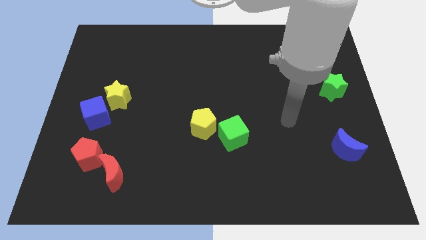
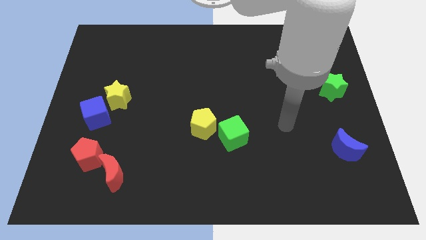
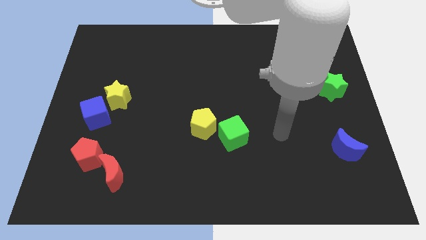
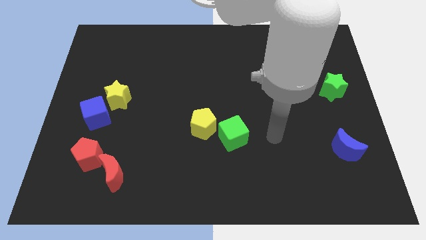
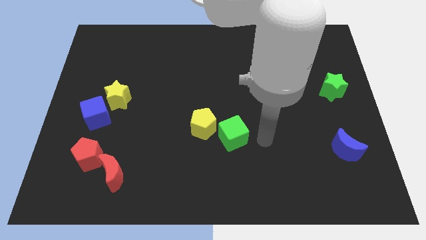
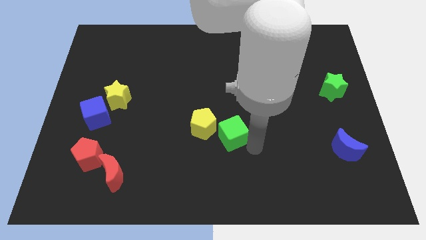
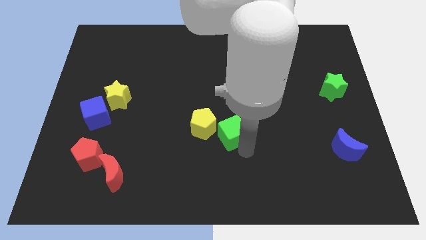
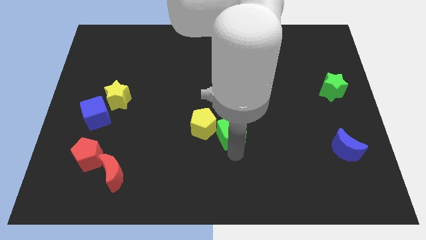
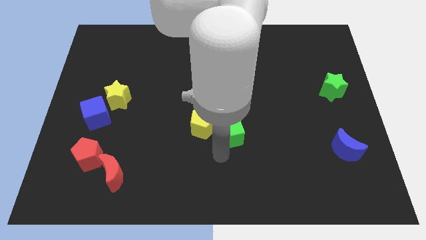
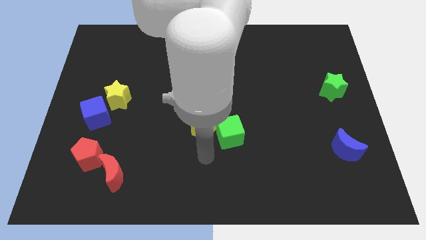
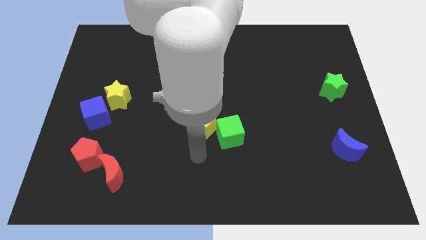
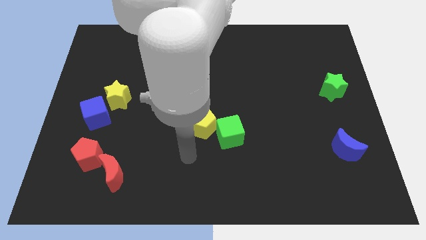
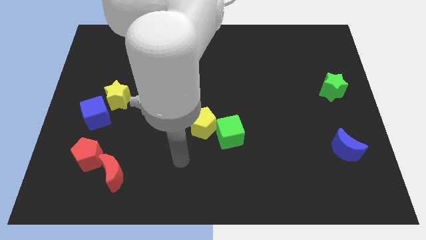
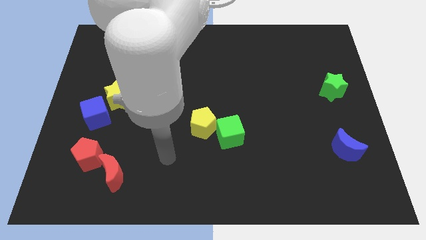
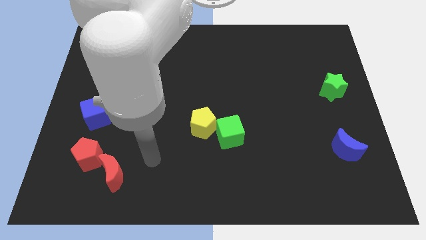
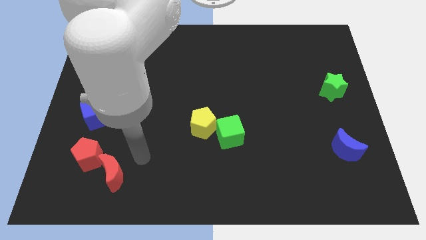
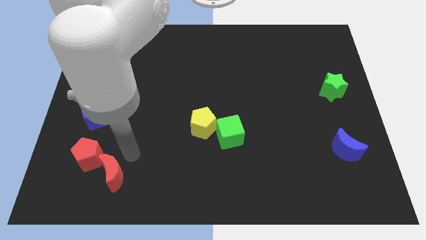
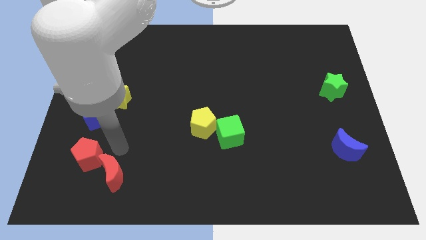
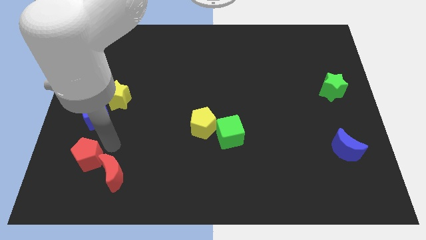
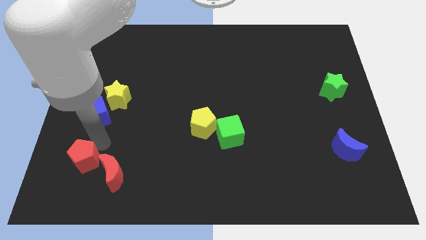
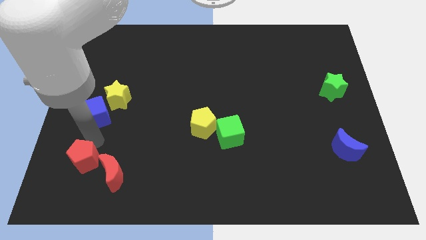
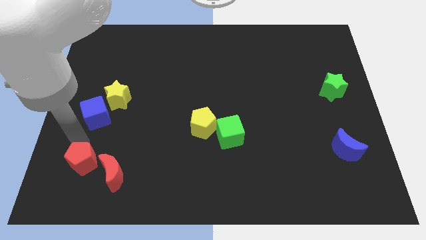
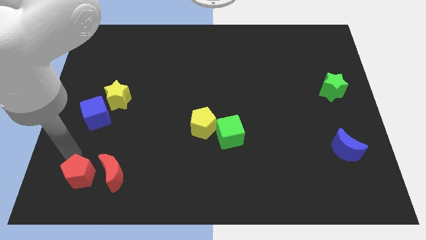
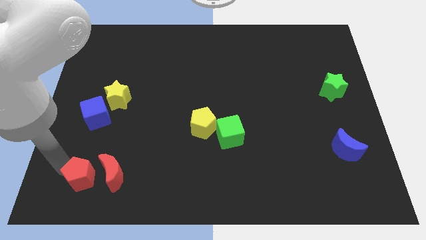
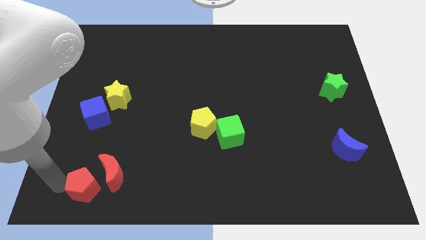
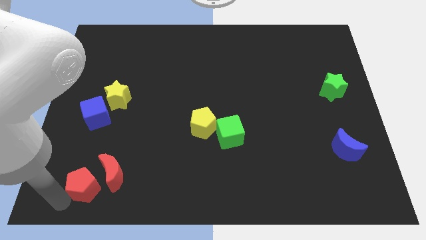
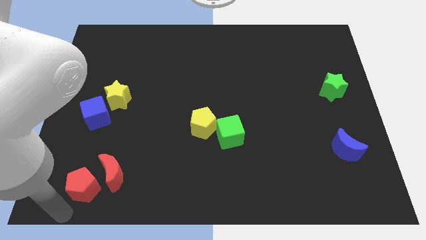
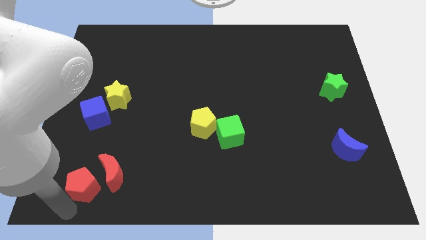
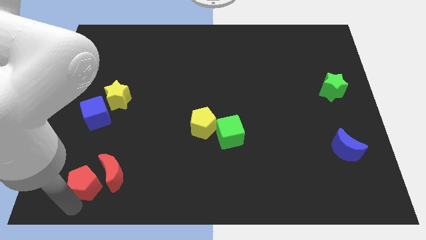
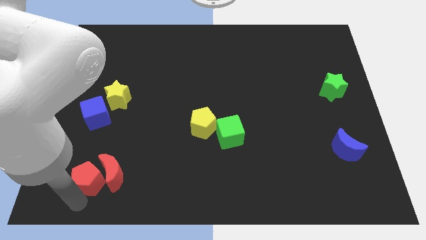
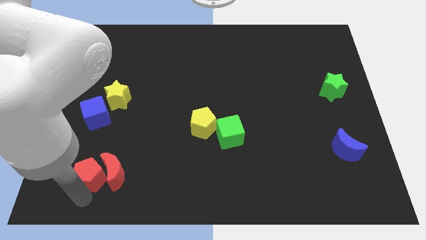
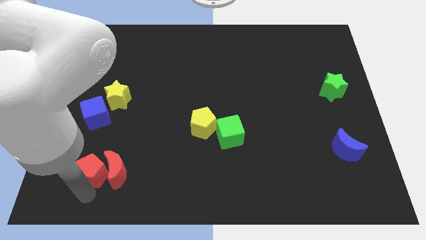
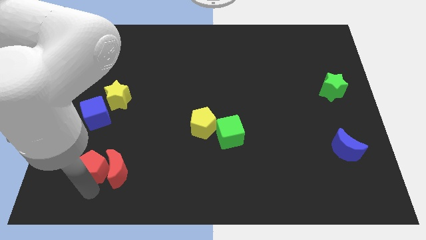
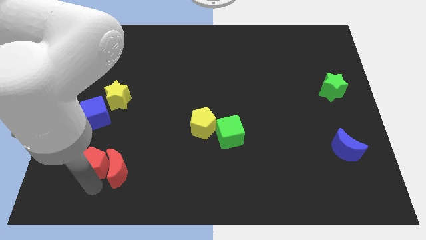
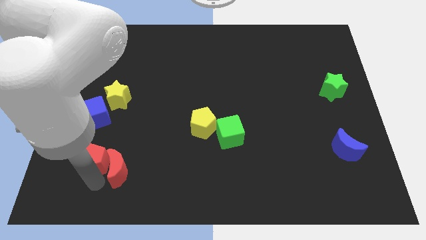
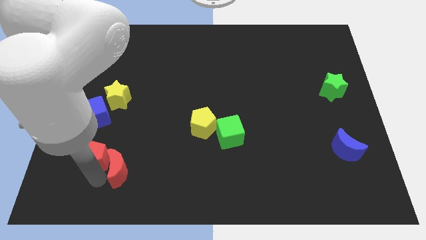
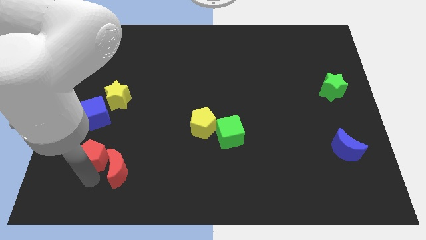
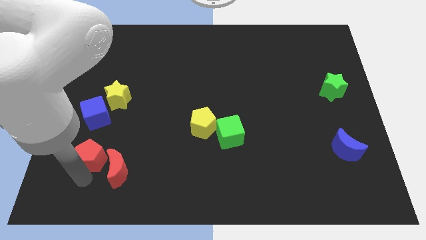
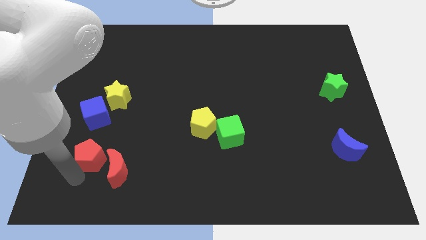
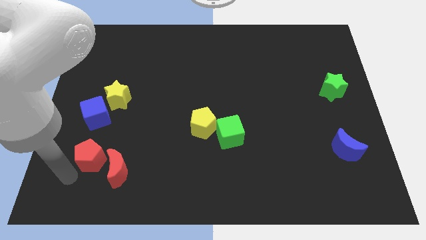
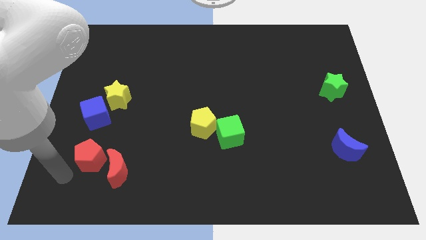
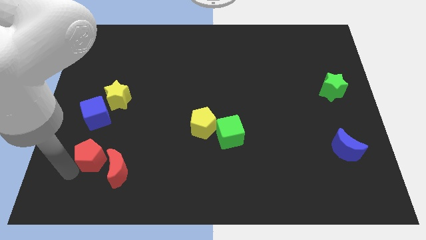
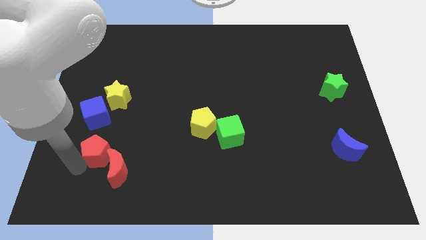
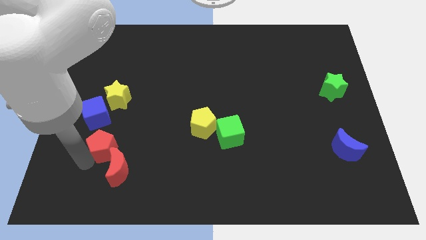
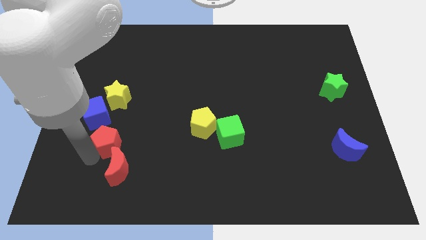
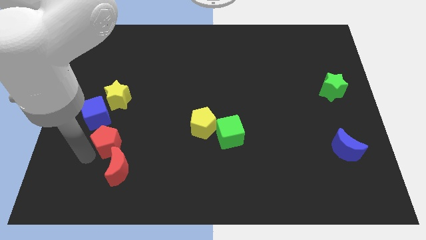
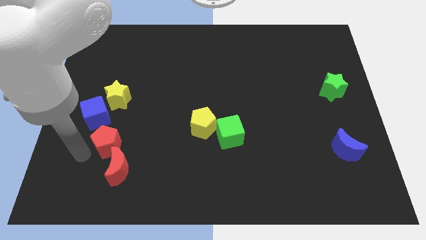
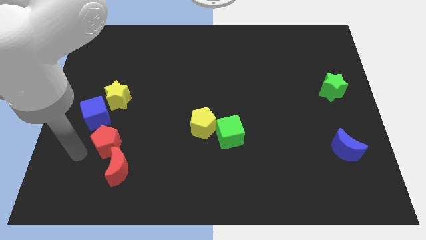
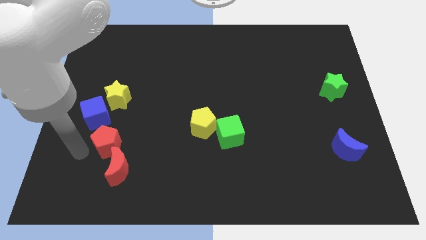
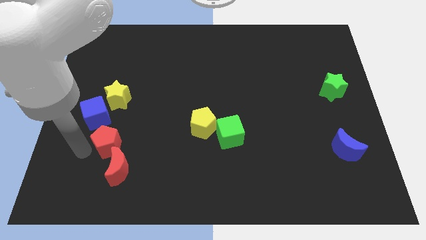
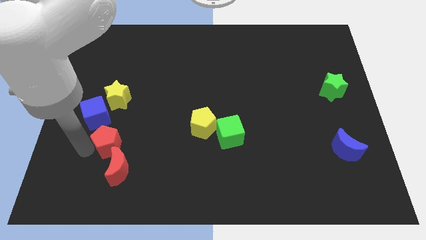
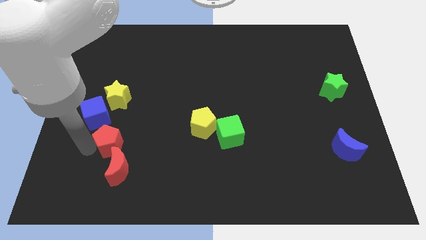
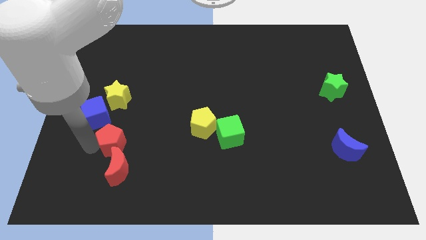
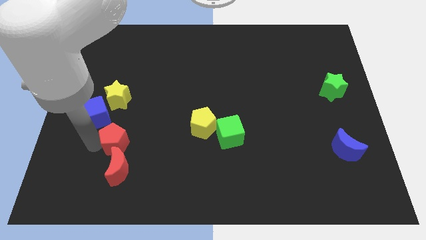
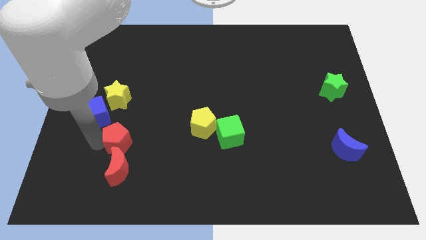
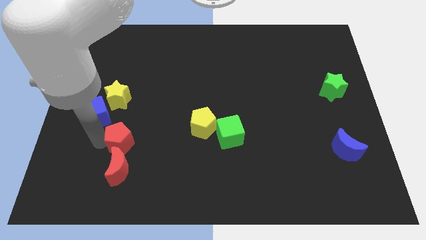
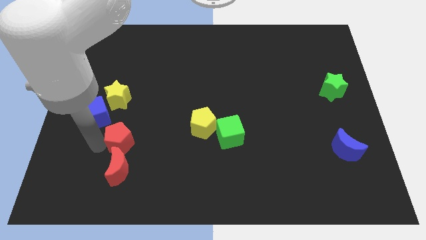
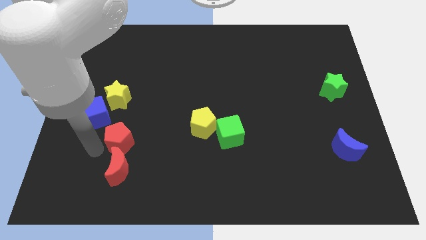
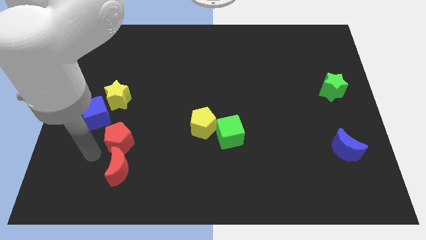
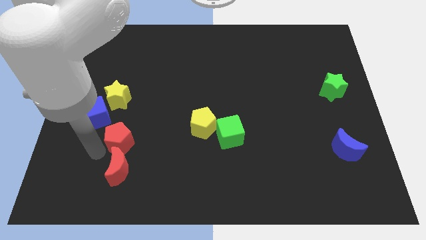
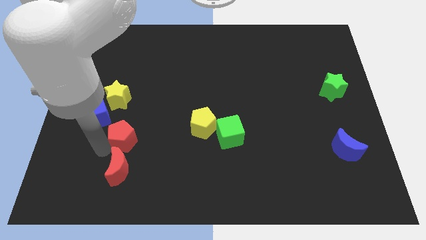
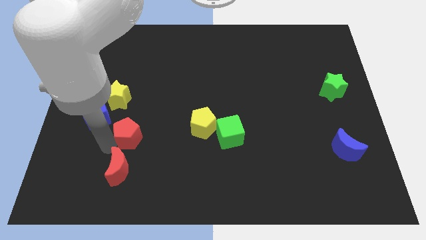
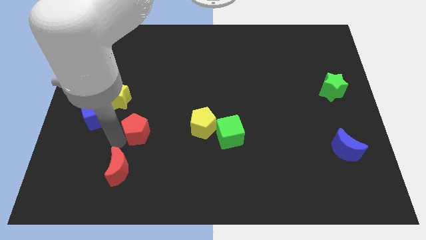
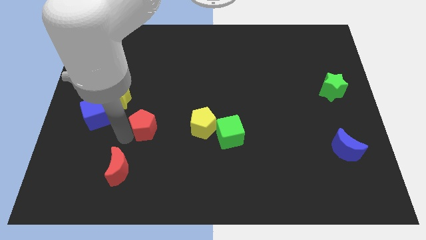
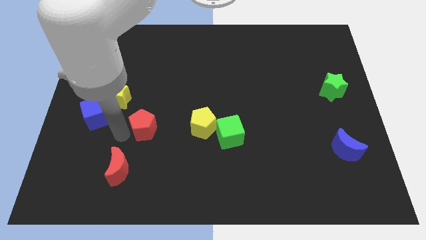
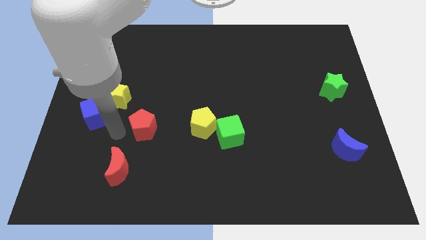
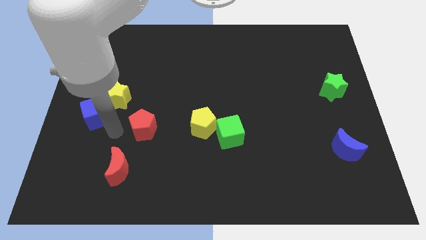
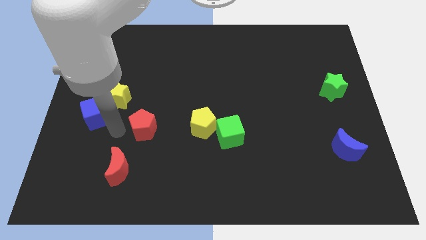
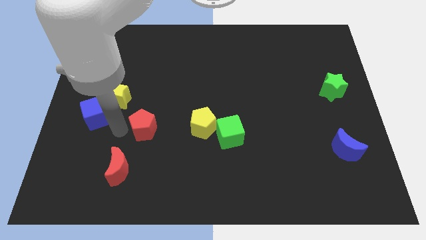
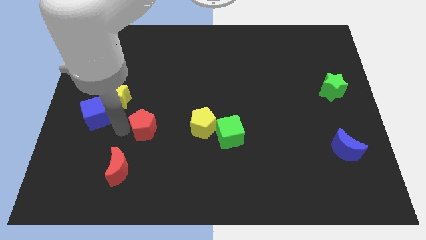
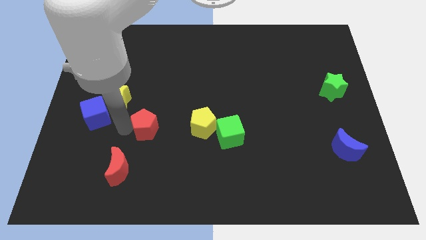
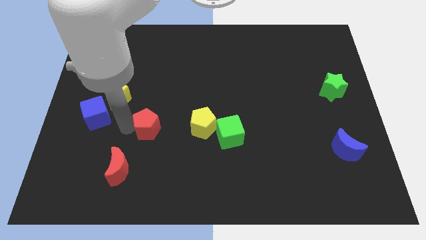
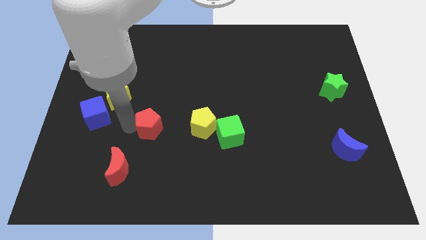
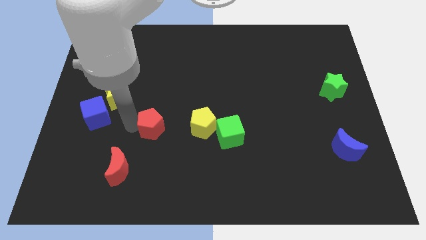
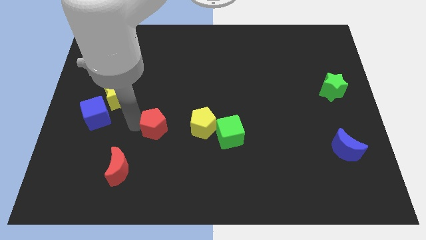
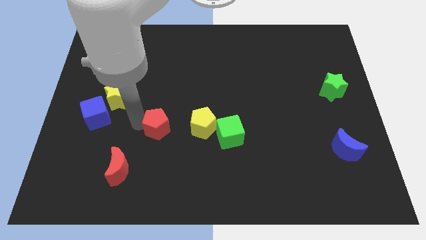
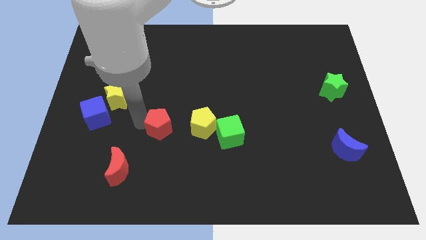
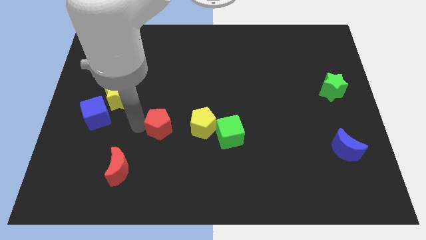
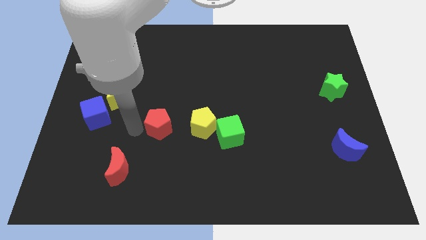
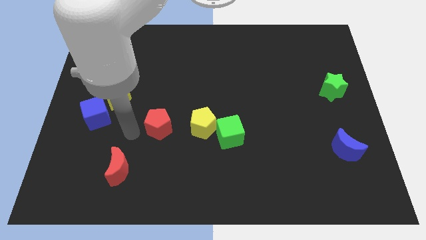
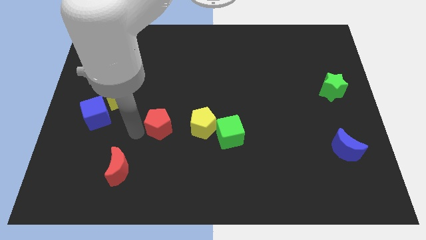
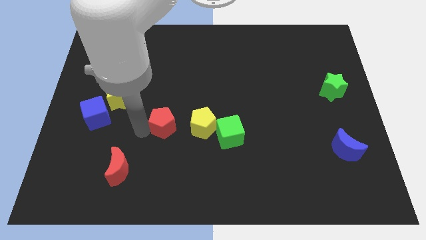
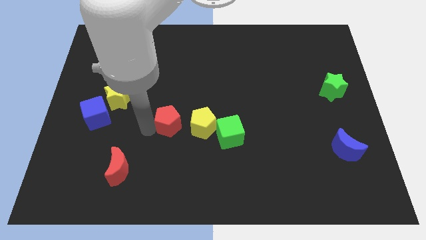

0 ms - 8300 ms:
move the red pentagon to the center of the board
